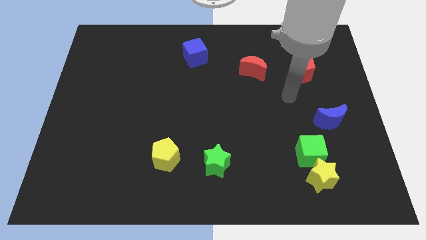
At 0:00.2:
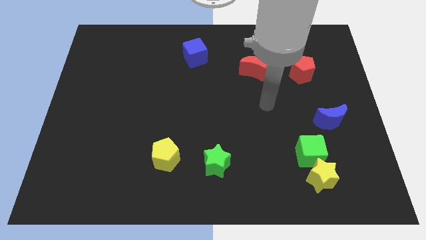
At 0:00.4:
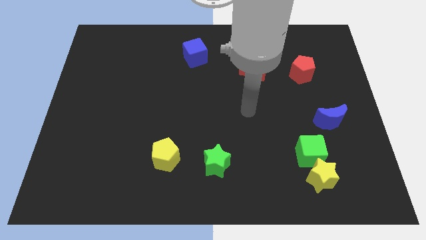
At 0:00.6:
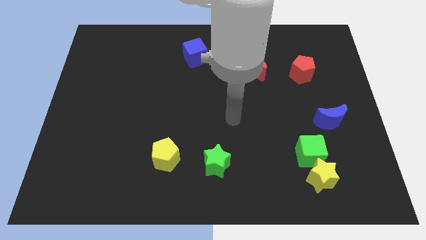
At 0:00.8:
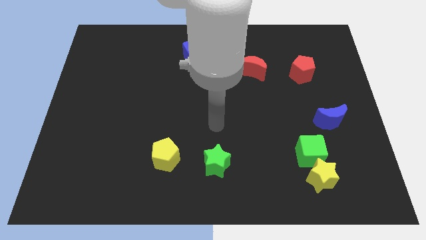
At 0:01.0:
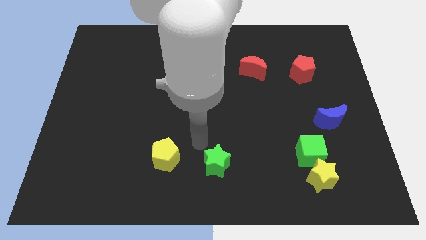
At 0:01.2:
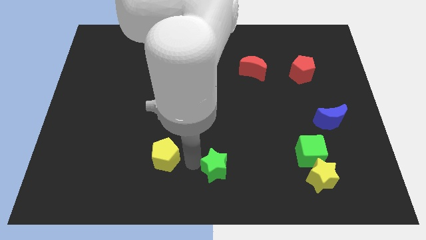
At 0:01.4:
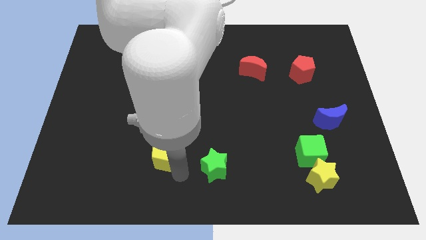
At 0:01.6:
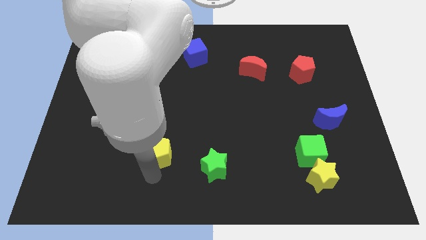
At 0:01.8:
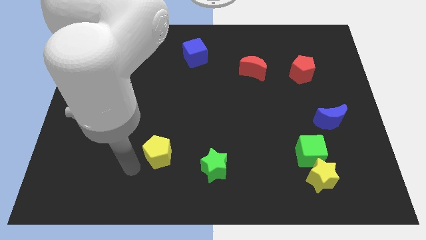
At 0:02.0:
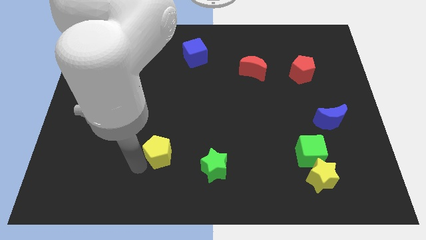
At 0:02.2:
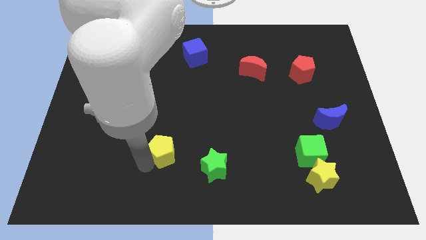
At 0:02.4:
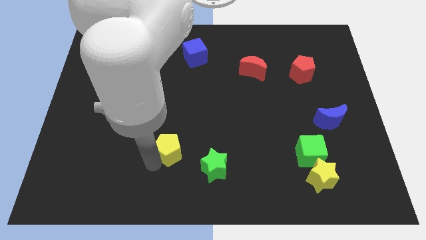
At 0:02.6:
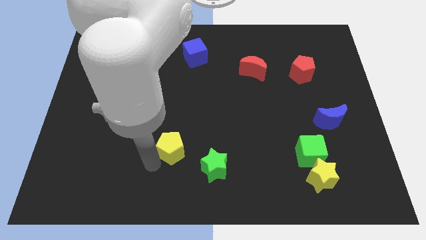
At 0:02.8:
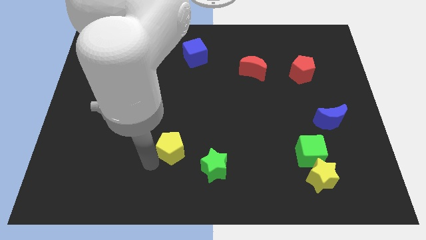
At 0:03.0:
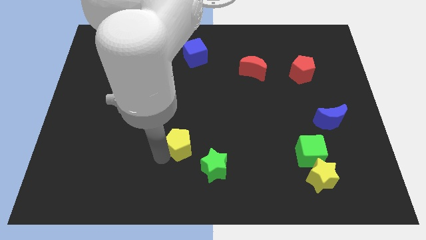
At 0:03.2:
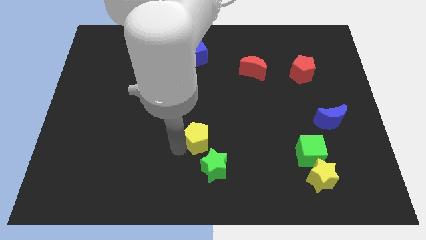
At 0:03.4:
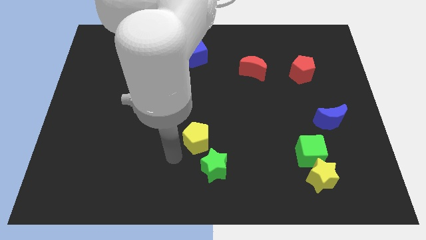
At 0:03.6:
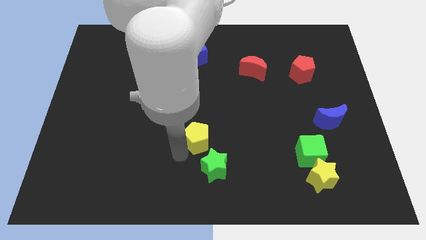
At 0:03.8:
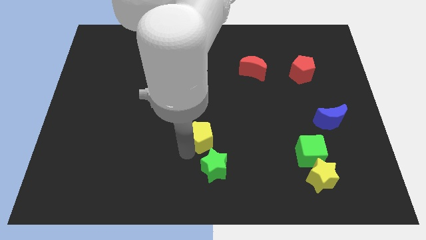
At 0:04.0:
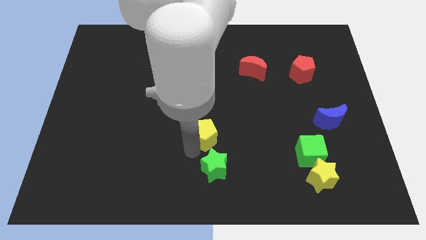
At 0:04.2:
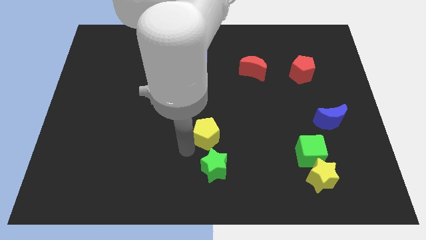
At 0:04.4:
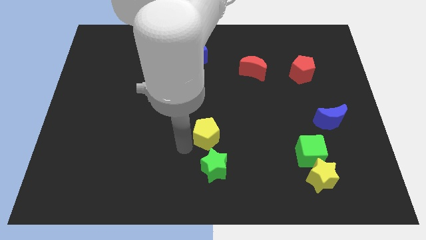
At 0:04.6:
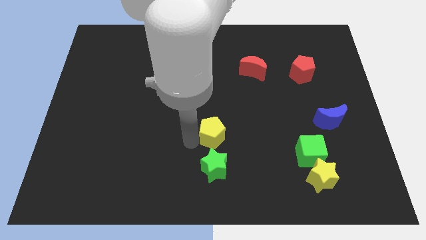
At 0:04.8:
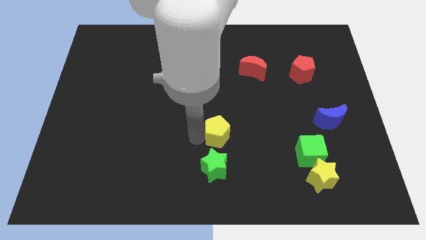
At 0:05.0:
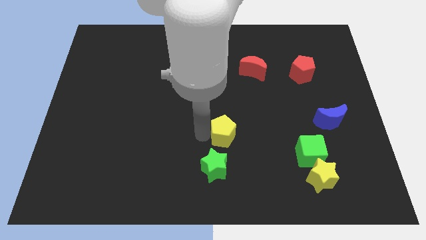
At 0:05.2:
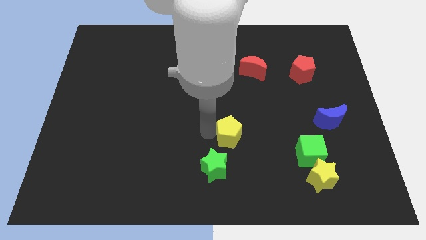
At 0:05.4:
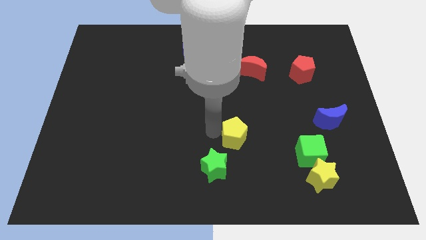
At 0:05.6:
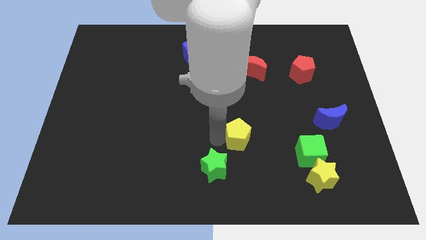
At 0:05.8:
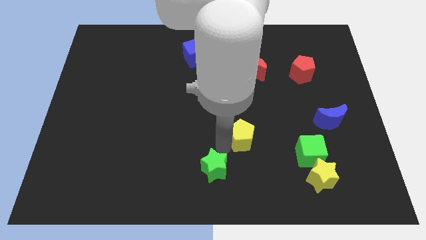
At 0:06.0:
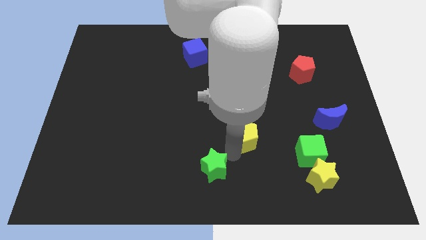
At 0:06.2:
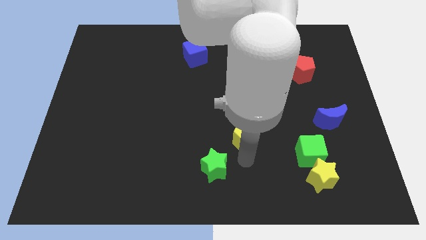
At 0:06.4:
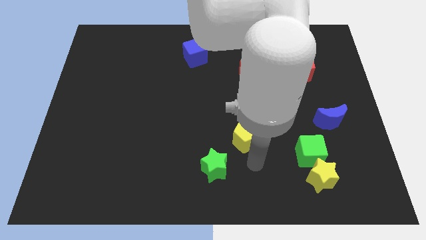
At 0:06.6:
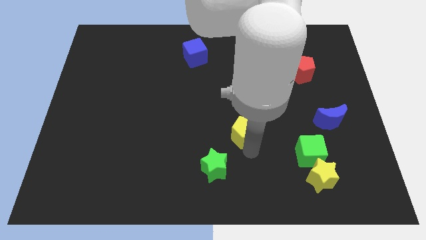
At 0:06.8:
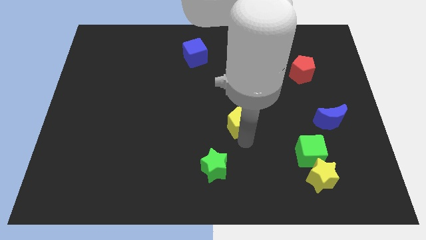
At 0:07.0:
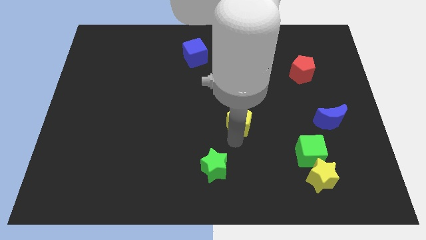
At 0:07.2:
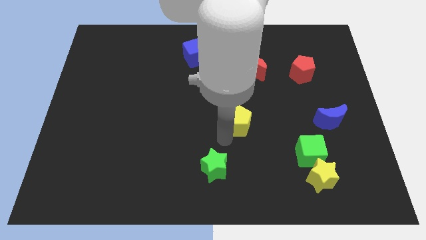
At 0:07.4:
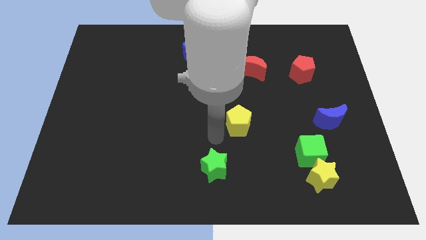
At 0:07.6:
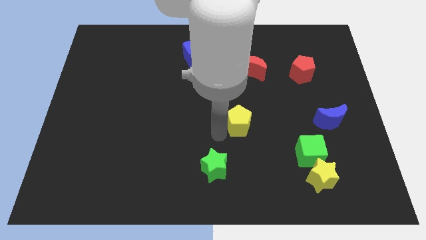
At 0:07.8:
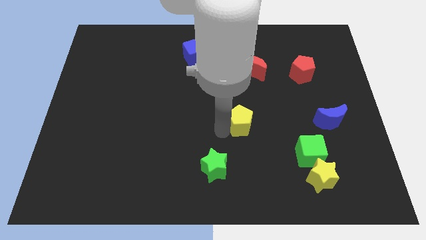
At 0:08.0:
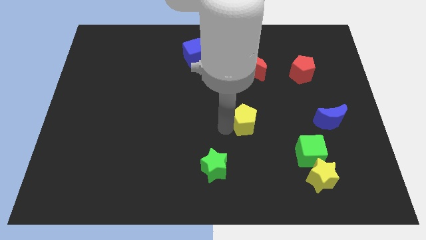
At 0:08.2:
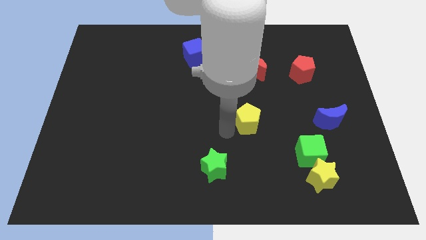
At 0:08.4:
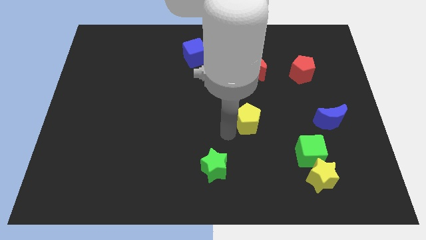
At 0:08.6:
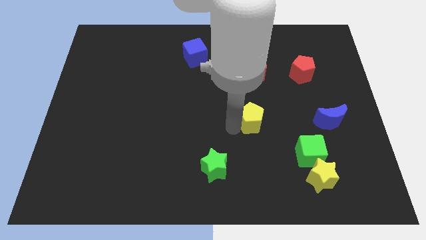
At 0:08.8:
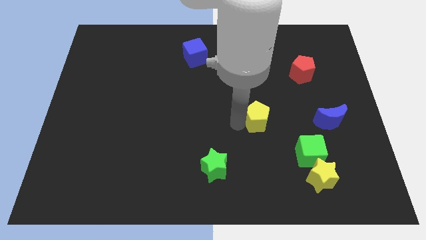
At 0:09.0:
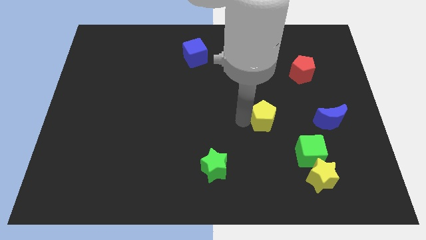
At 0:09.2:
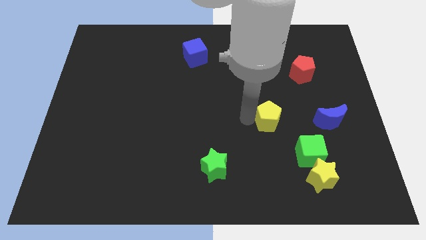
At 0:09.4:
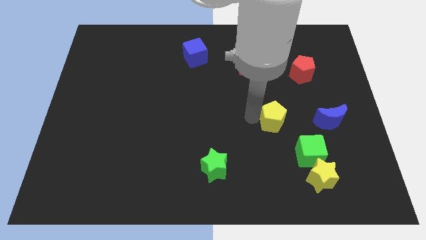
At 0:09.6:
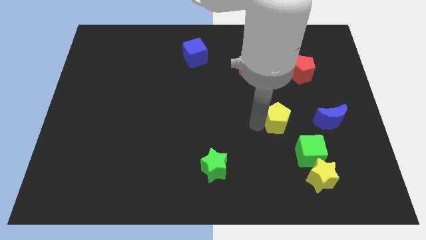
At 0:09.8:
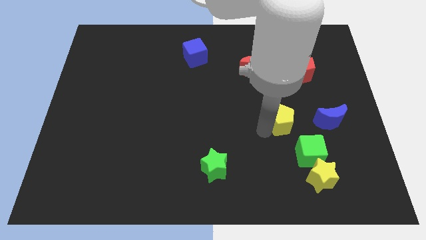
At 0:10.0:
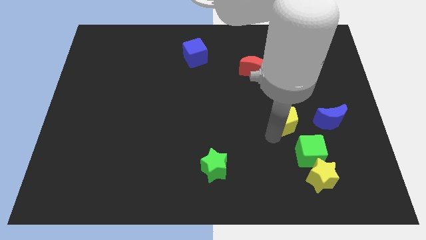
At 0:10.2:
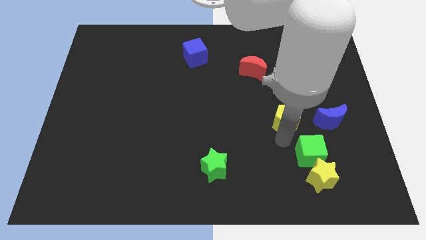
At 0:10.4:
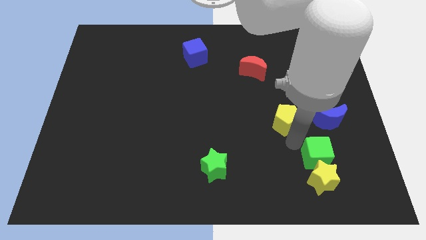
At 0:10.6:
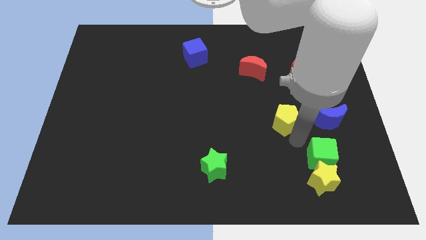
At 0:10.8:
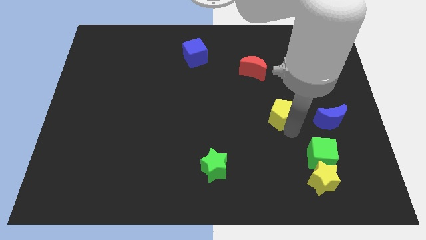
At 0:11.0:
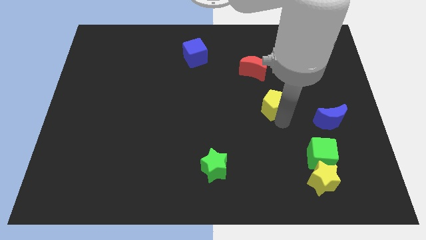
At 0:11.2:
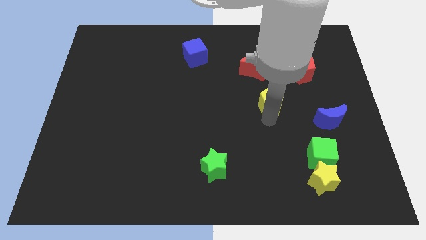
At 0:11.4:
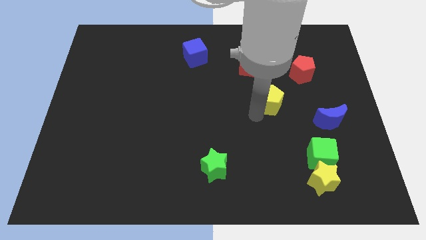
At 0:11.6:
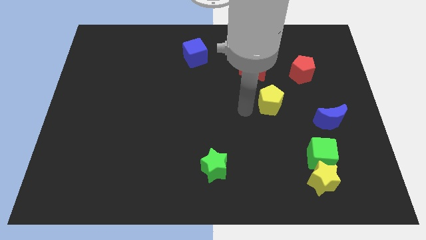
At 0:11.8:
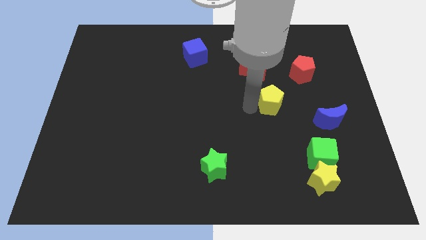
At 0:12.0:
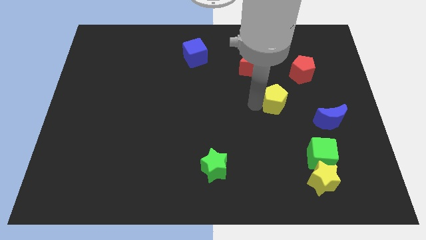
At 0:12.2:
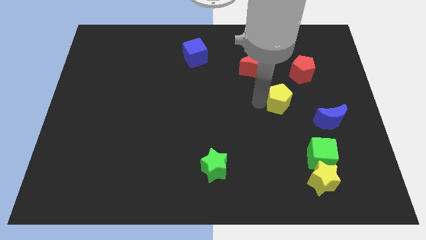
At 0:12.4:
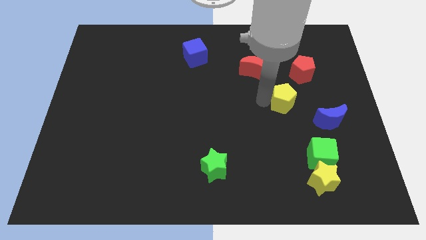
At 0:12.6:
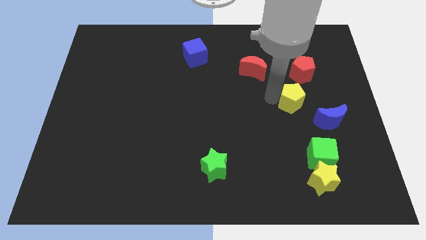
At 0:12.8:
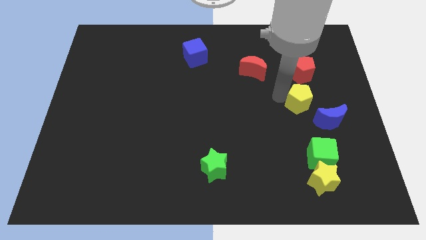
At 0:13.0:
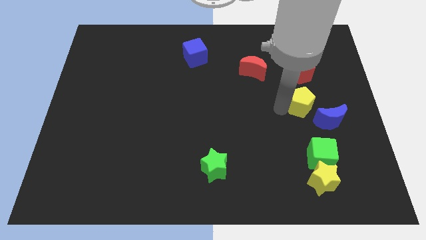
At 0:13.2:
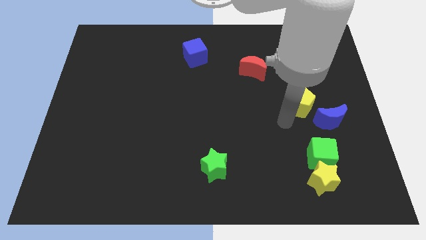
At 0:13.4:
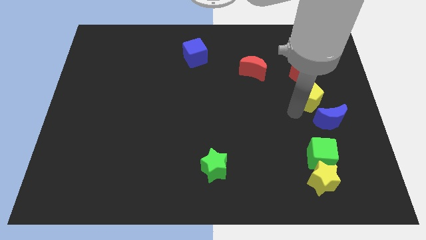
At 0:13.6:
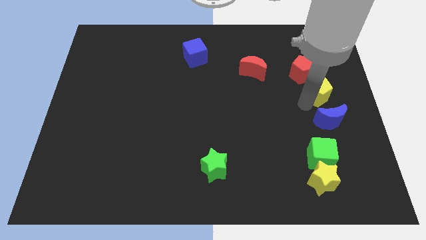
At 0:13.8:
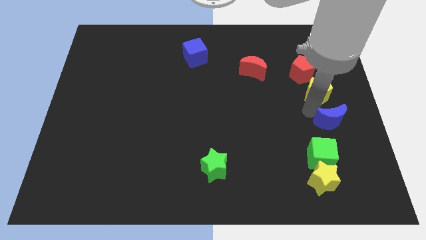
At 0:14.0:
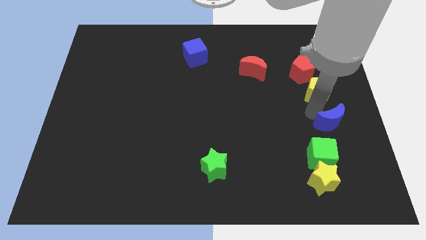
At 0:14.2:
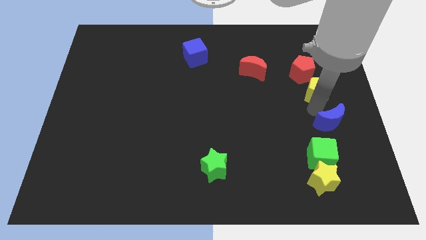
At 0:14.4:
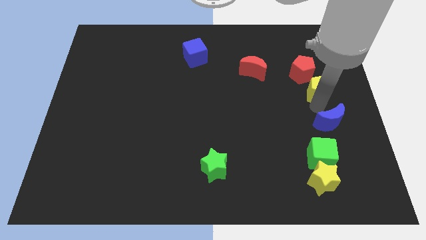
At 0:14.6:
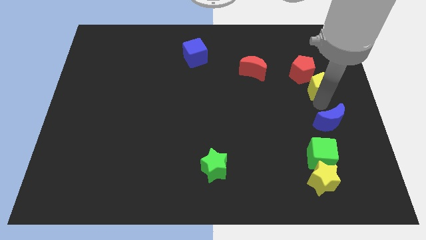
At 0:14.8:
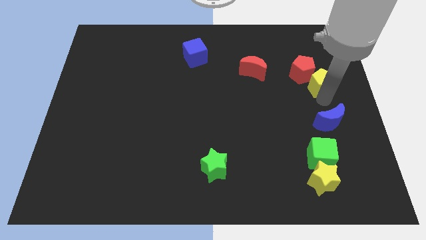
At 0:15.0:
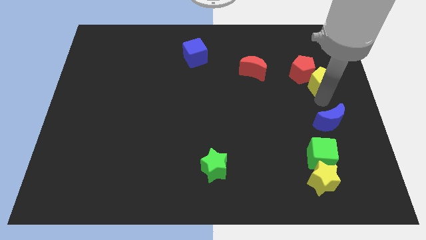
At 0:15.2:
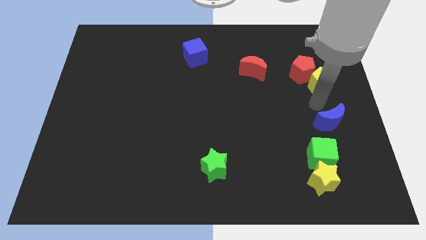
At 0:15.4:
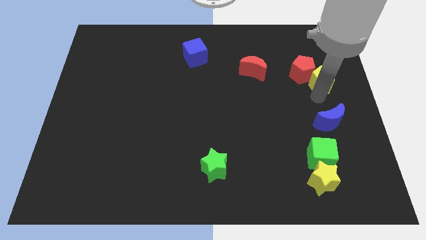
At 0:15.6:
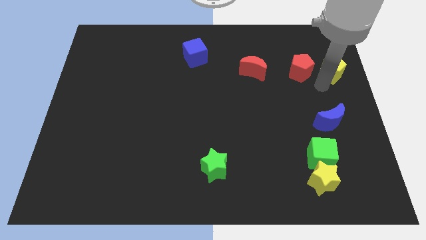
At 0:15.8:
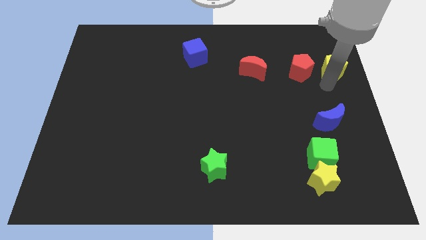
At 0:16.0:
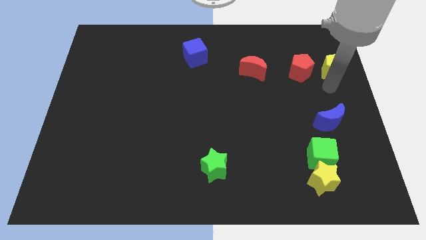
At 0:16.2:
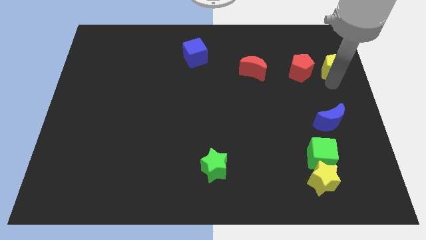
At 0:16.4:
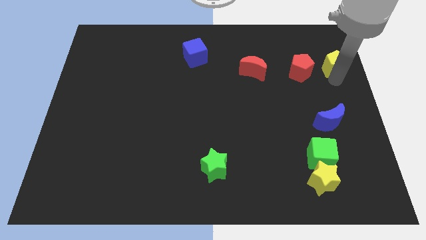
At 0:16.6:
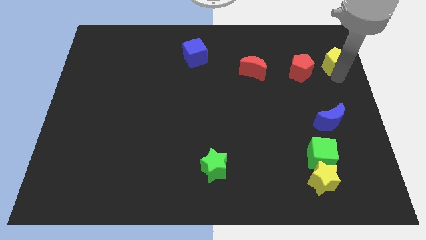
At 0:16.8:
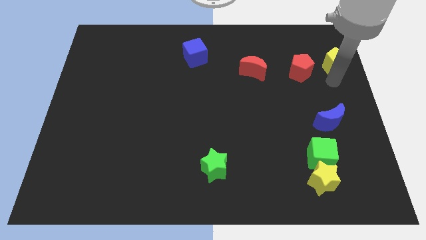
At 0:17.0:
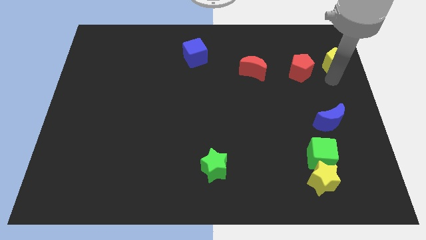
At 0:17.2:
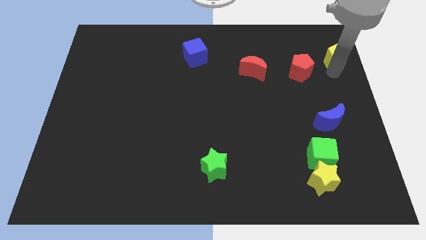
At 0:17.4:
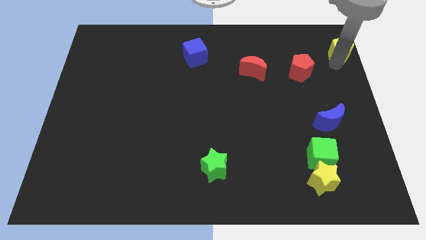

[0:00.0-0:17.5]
move the yellow pentagon to the top right corner
